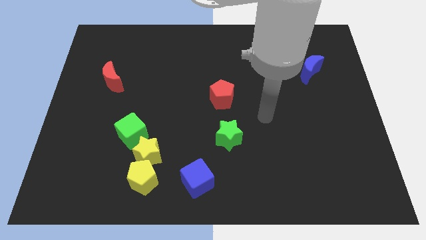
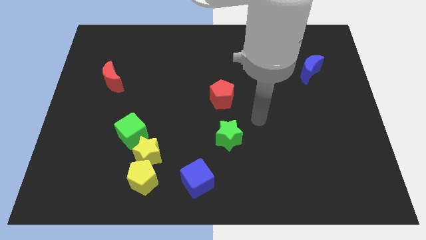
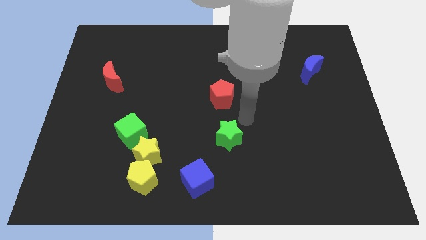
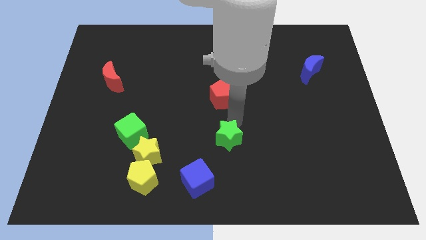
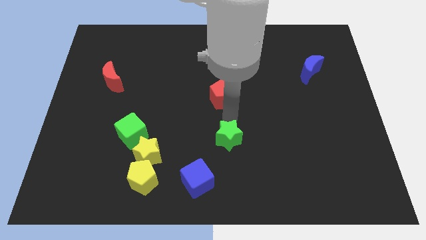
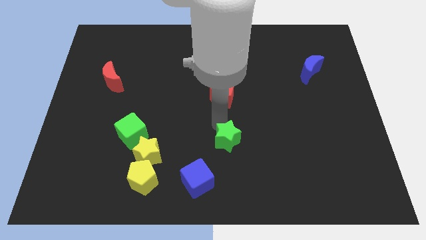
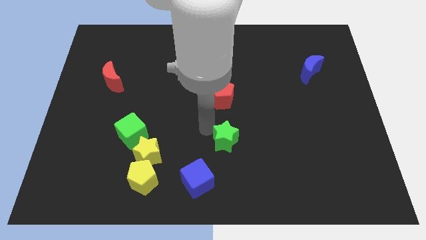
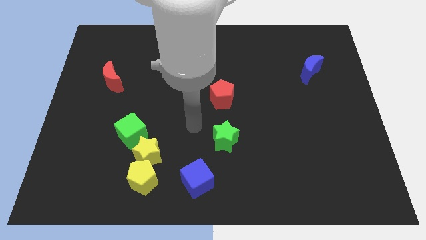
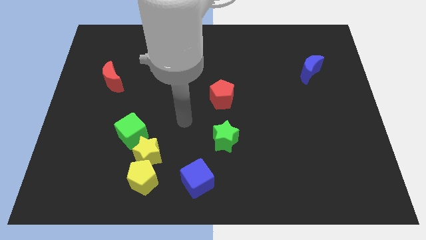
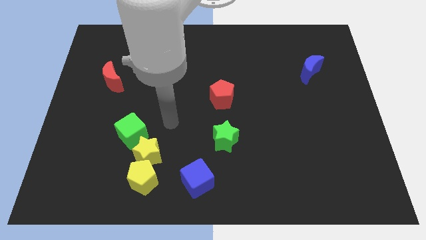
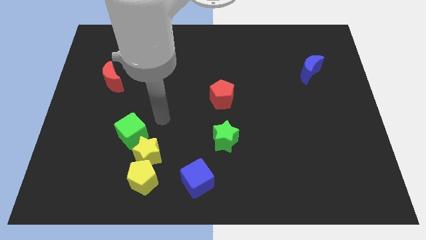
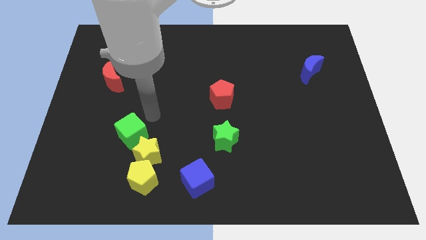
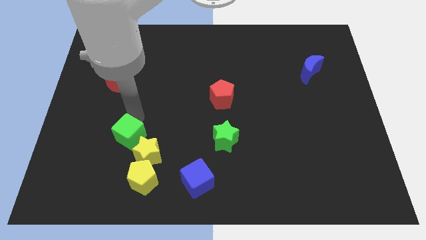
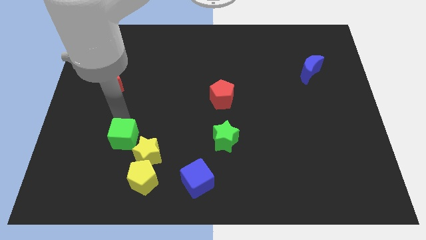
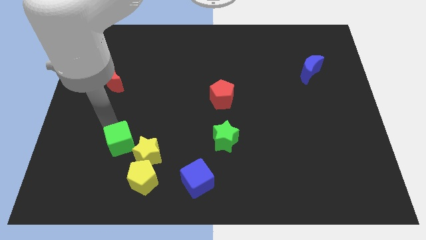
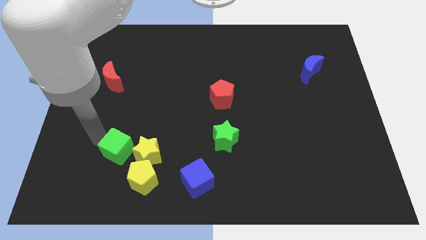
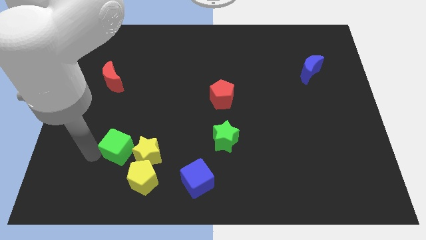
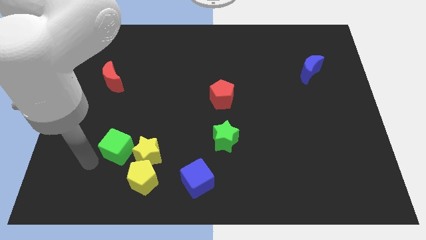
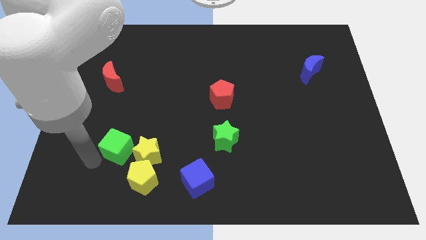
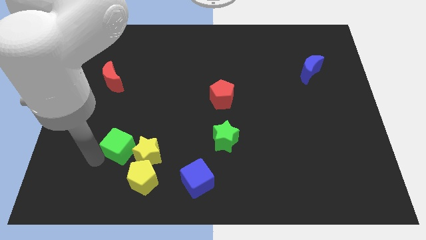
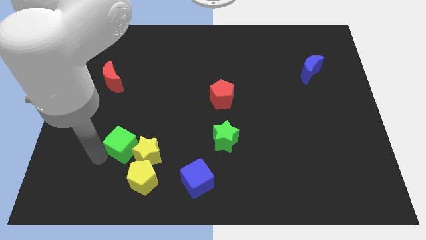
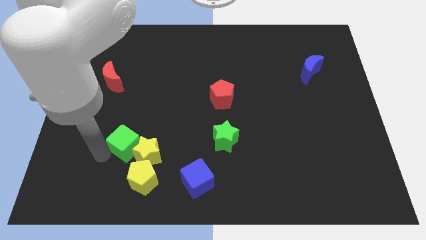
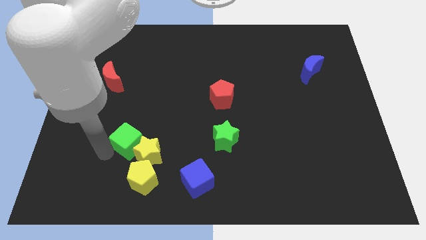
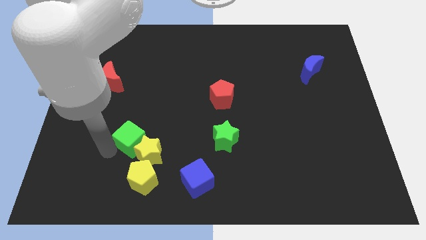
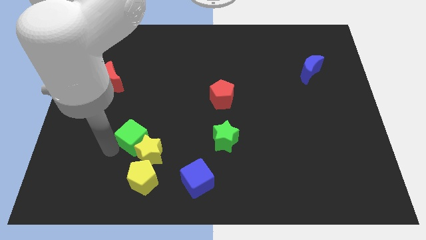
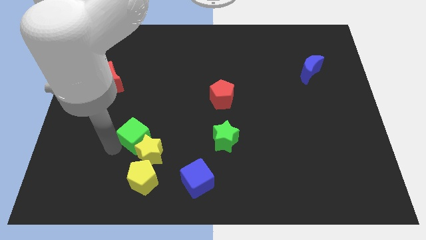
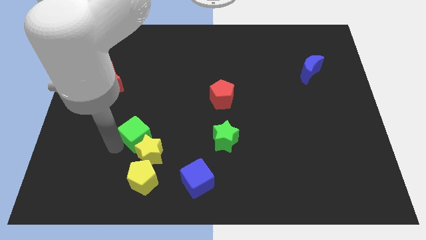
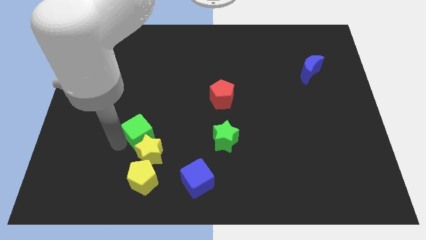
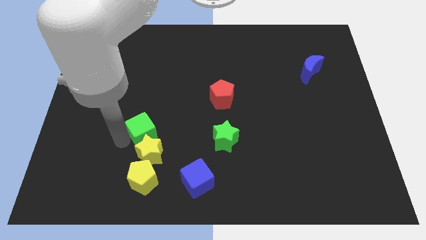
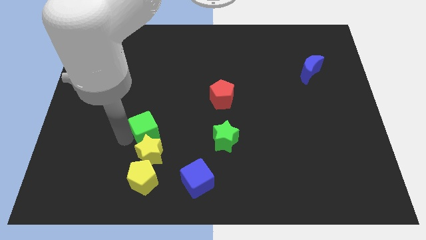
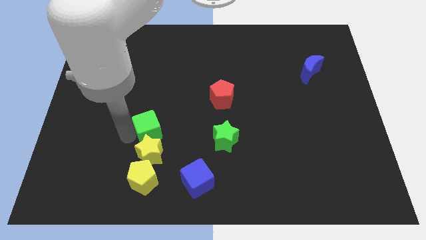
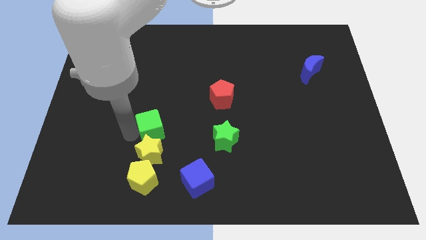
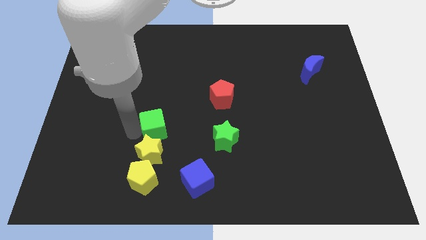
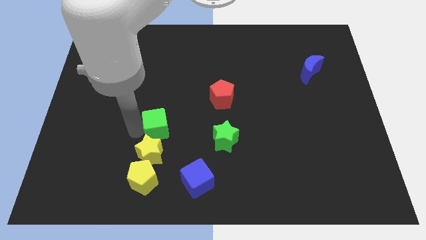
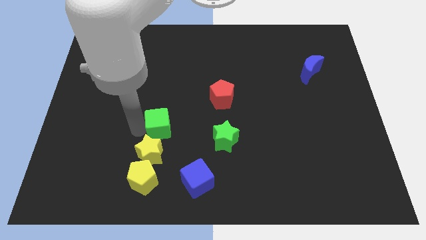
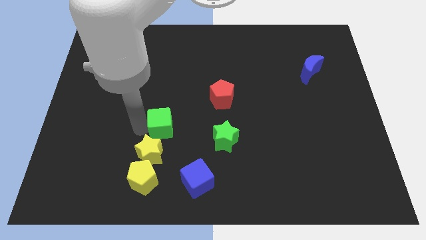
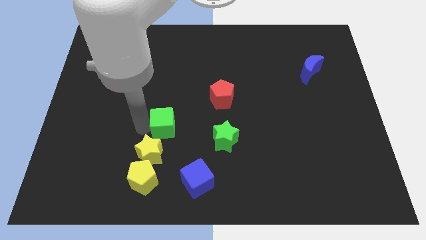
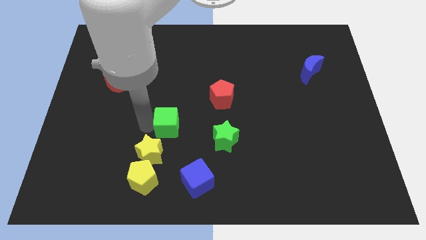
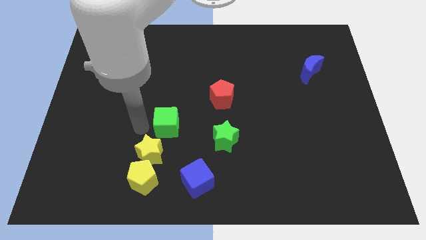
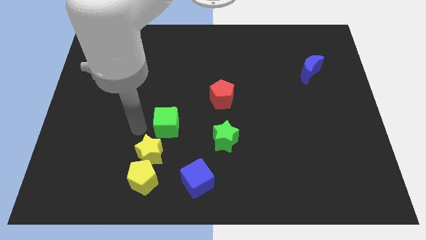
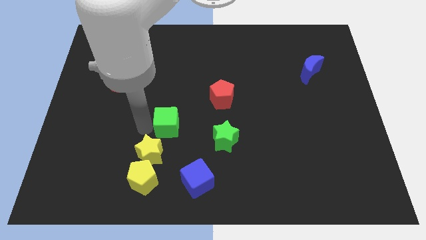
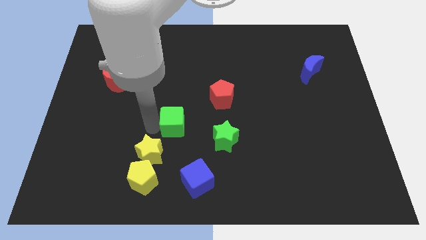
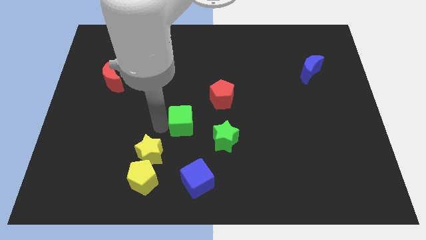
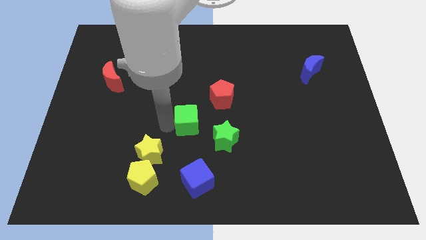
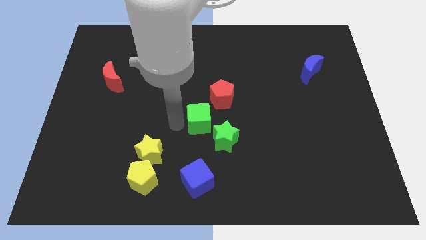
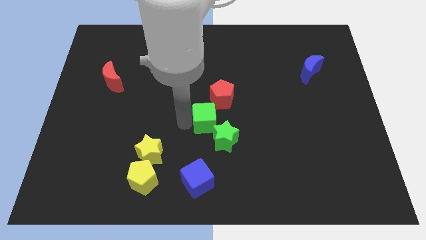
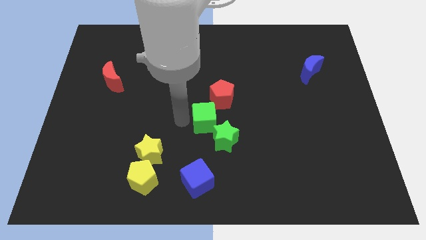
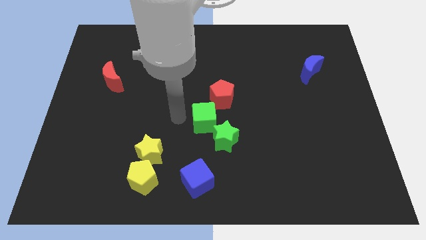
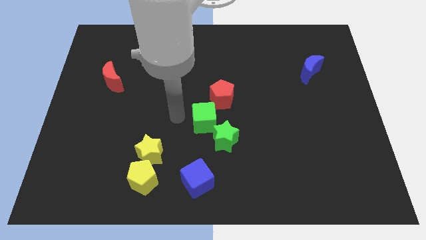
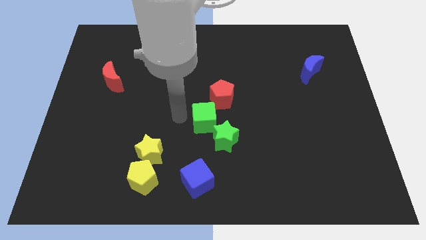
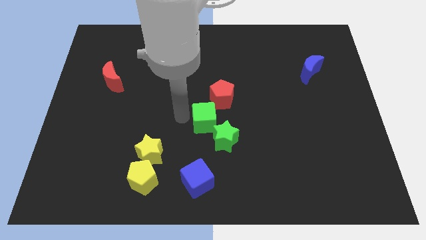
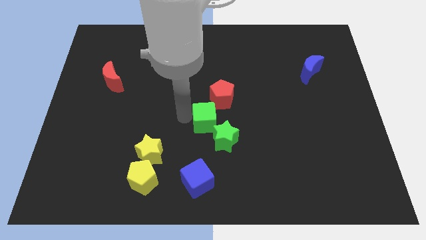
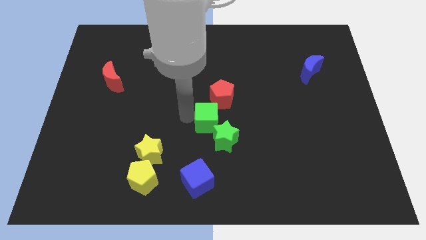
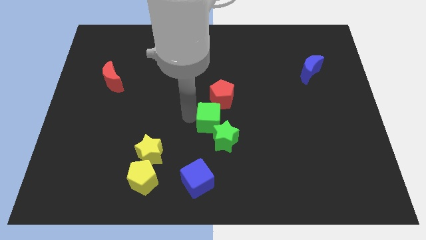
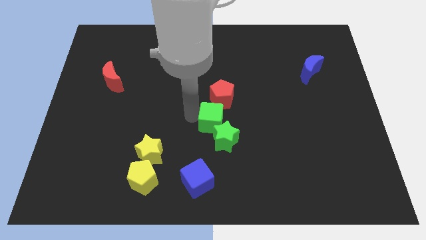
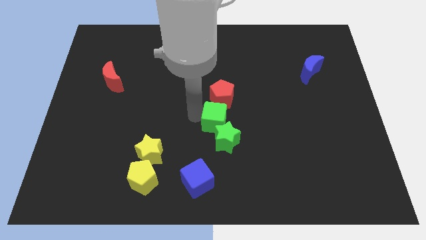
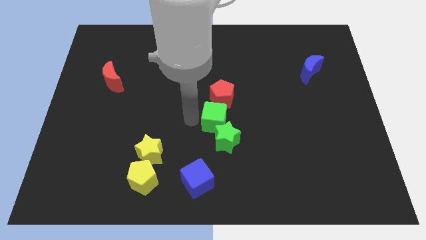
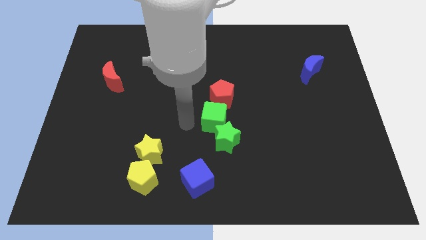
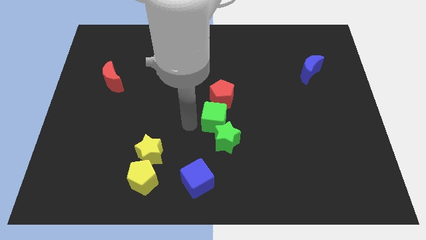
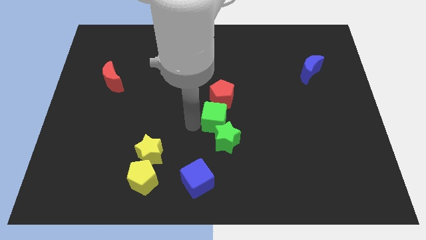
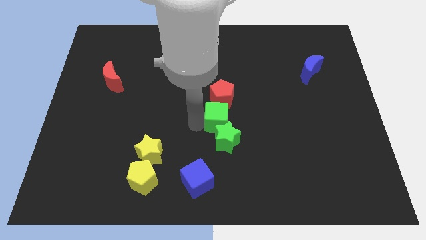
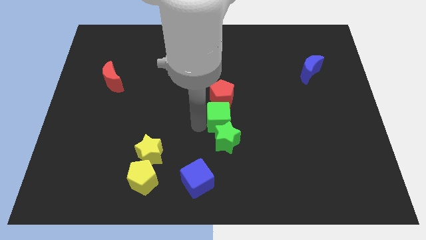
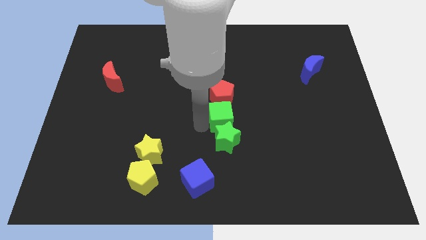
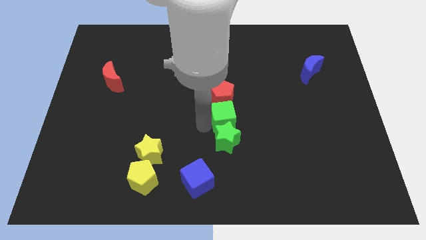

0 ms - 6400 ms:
push the green cube to the right

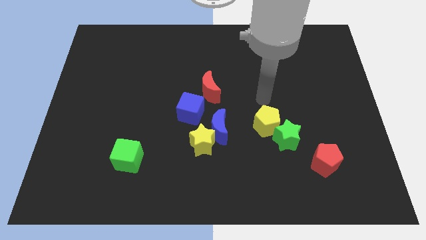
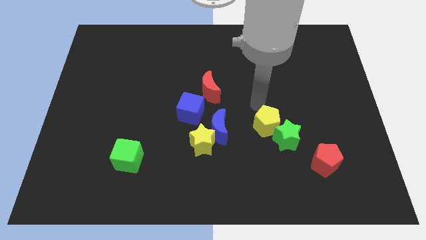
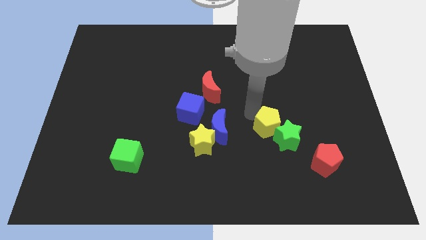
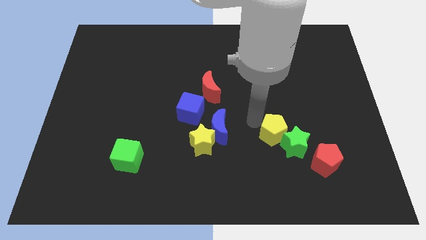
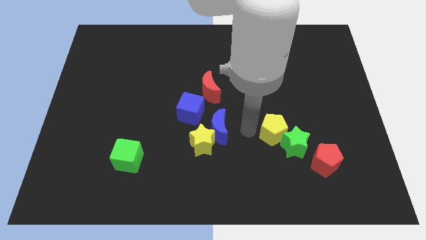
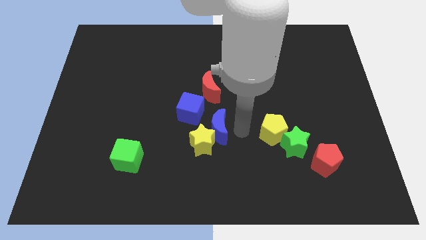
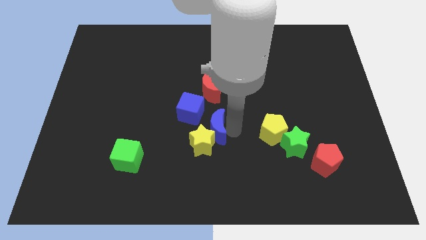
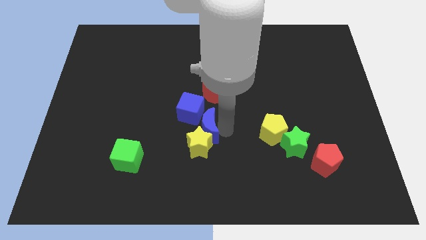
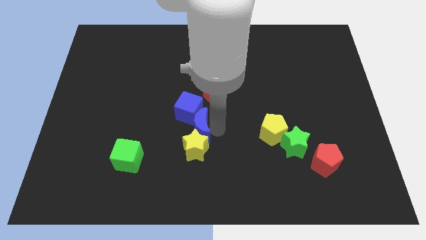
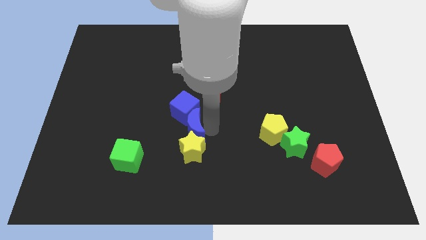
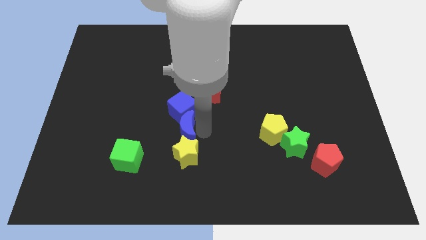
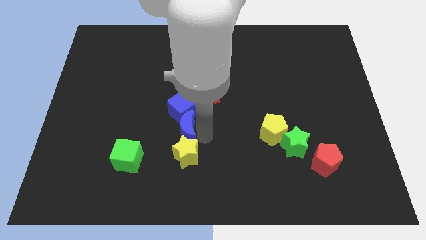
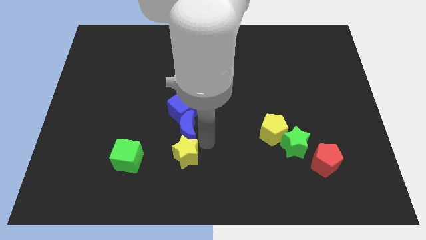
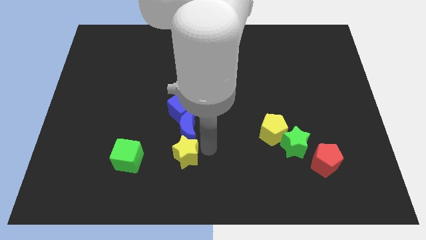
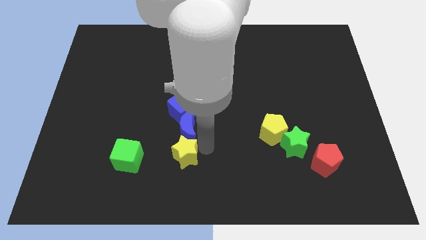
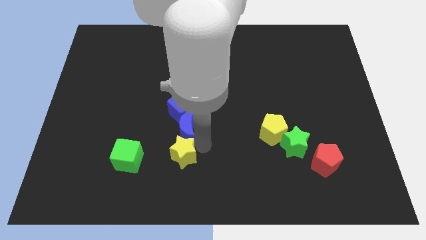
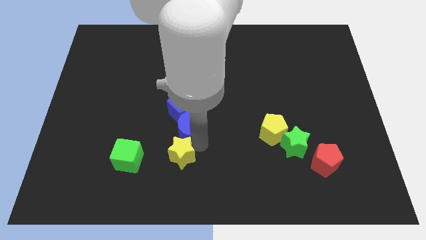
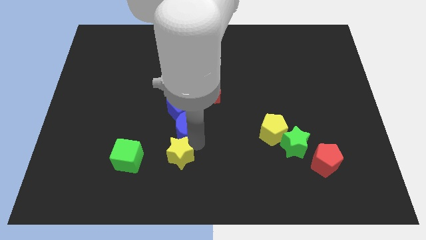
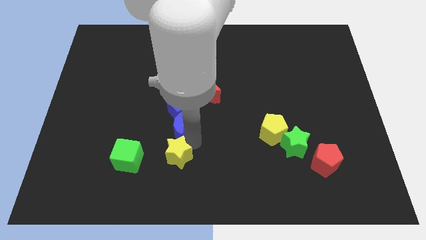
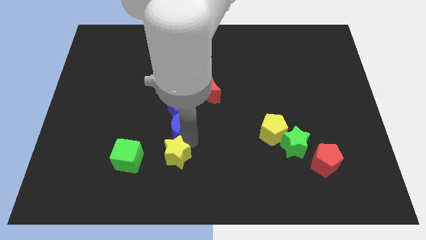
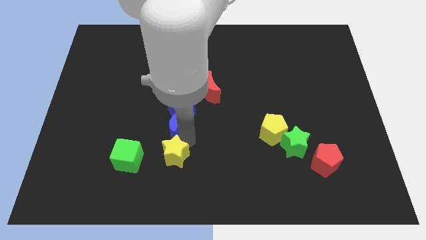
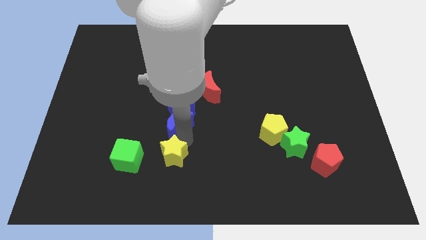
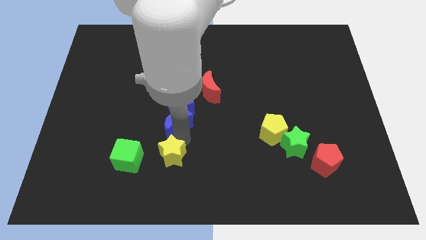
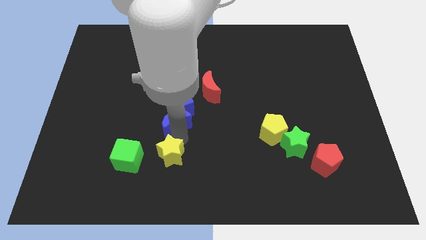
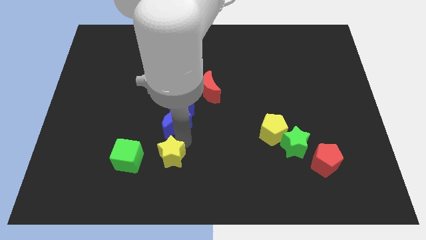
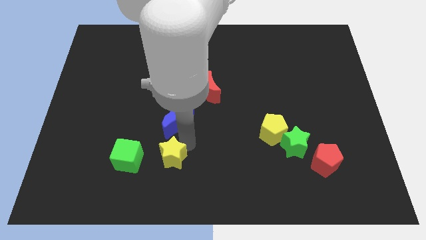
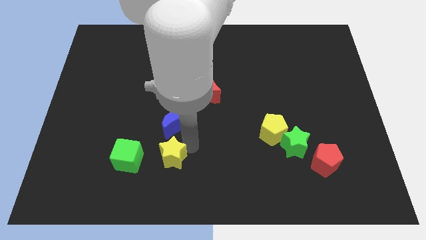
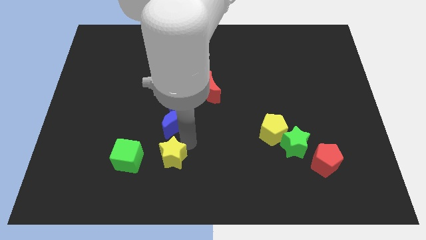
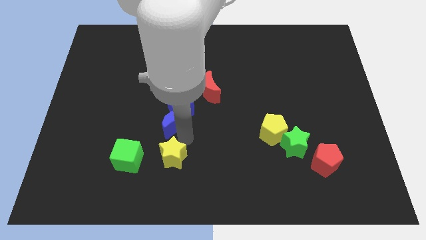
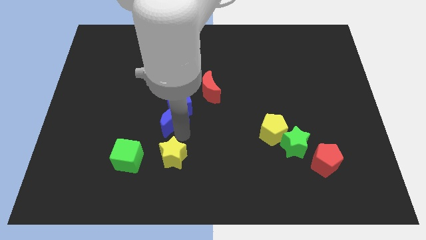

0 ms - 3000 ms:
slide the blue moon upwards and left a bit
